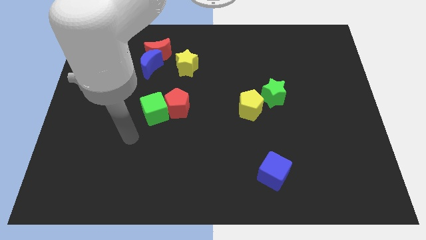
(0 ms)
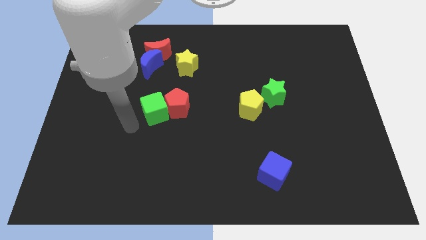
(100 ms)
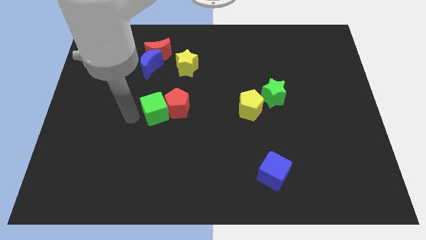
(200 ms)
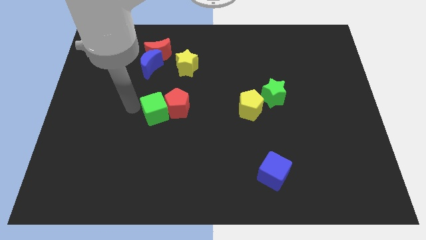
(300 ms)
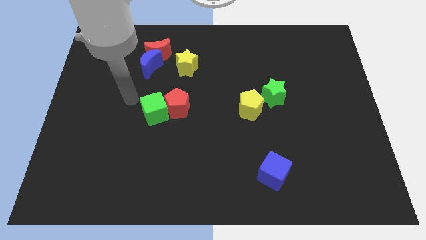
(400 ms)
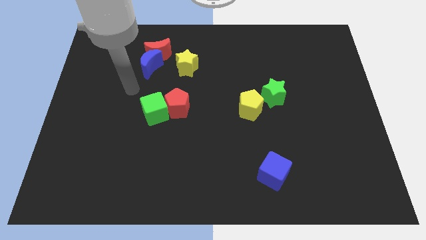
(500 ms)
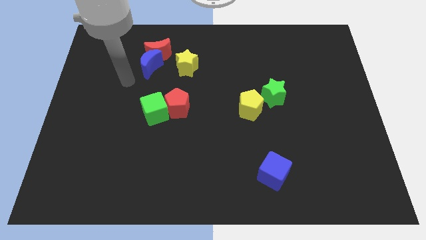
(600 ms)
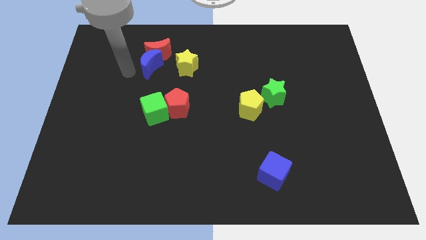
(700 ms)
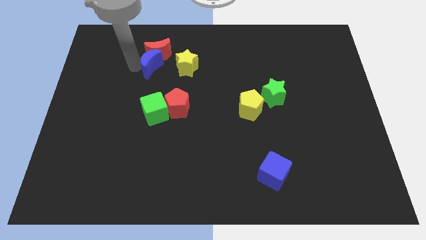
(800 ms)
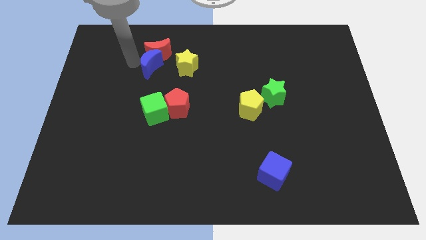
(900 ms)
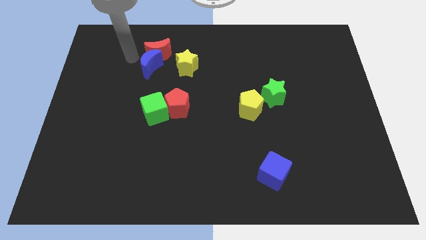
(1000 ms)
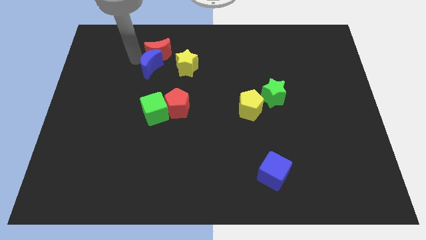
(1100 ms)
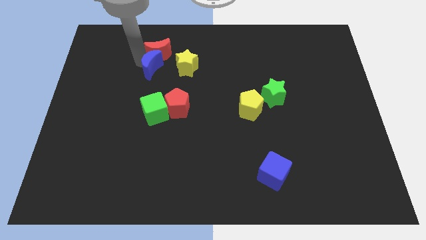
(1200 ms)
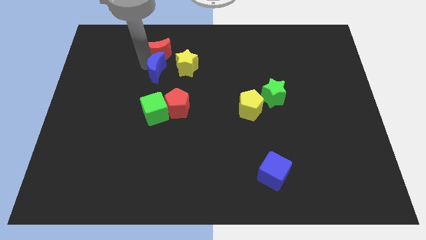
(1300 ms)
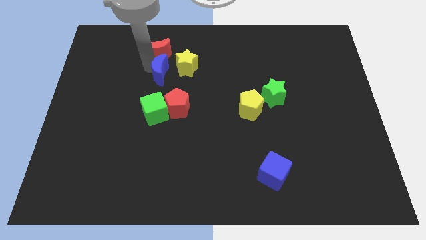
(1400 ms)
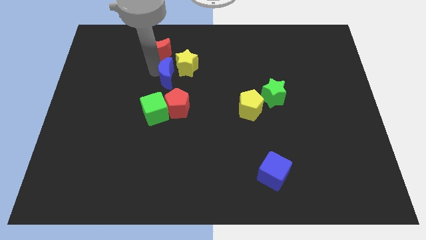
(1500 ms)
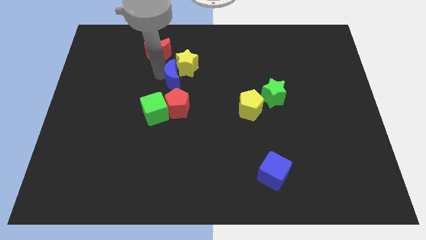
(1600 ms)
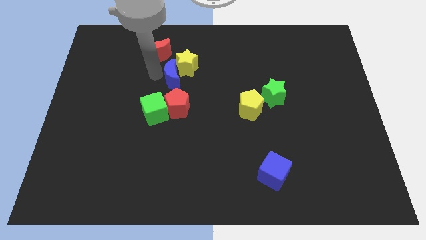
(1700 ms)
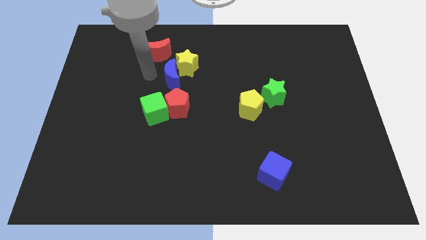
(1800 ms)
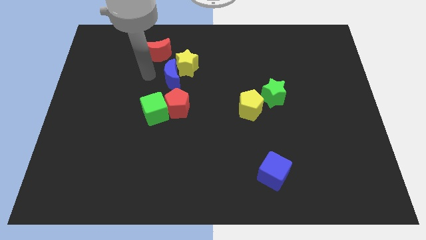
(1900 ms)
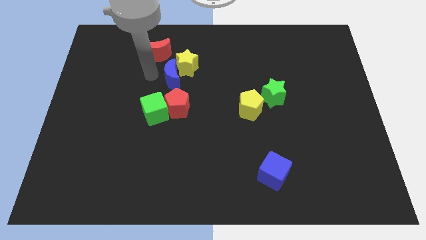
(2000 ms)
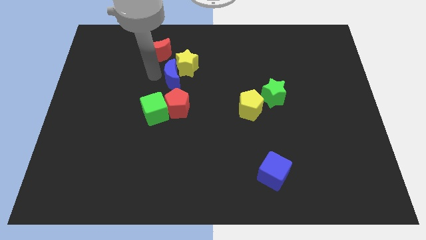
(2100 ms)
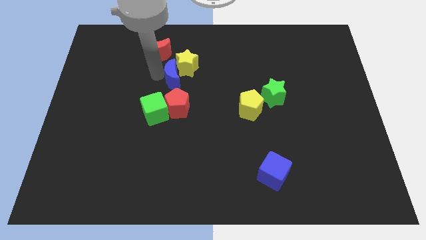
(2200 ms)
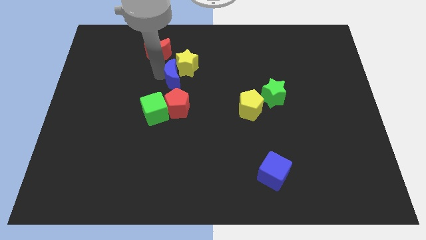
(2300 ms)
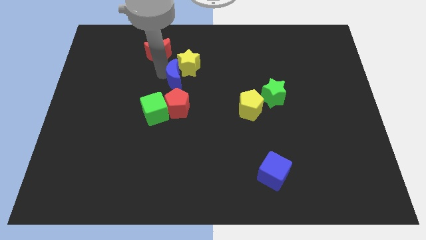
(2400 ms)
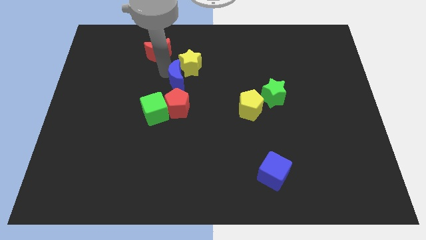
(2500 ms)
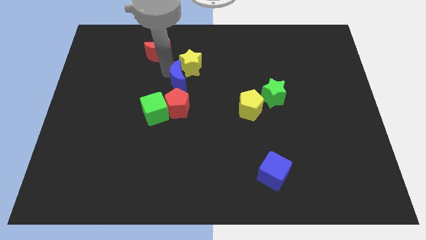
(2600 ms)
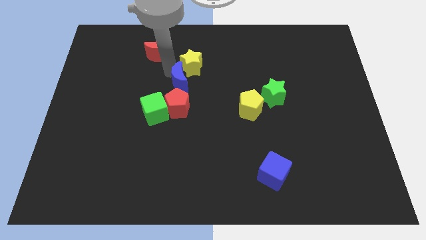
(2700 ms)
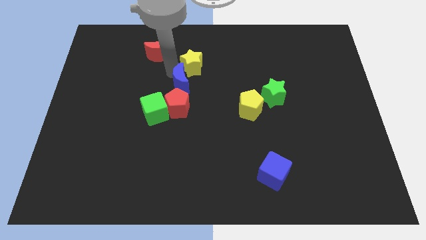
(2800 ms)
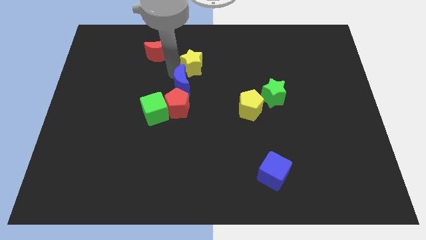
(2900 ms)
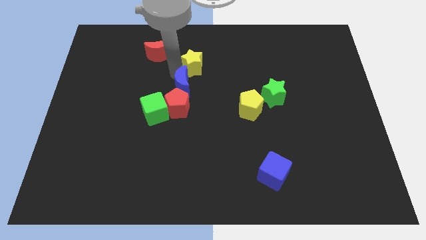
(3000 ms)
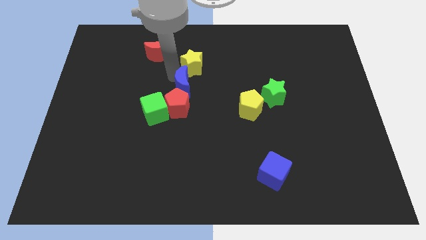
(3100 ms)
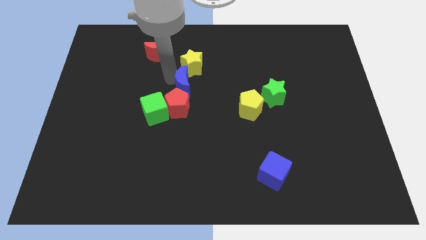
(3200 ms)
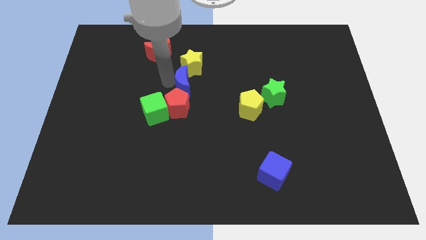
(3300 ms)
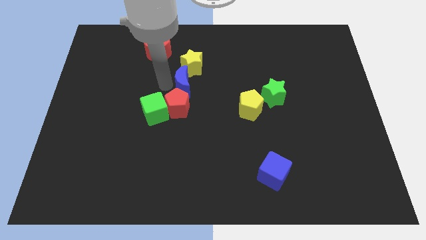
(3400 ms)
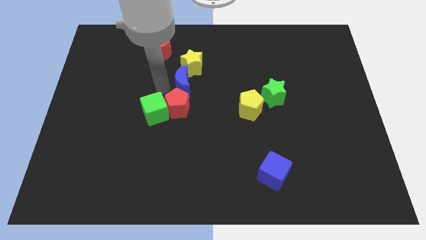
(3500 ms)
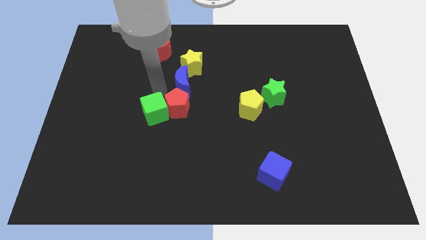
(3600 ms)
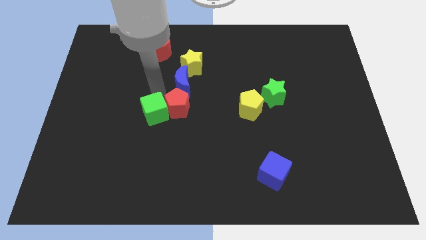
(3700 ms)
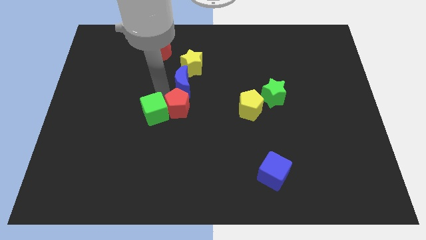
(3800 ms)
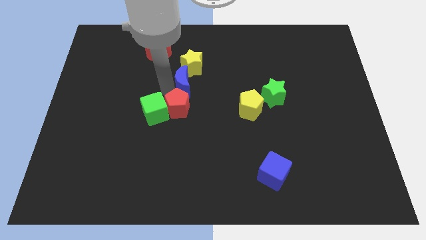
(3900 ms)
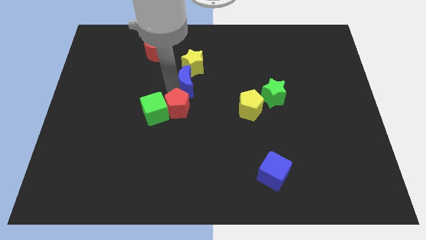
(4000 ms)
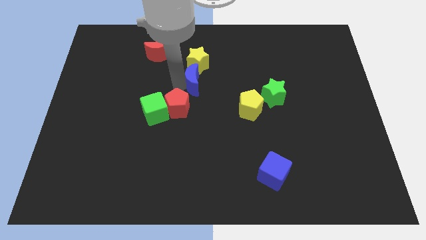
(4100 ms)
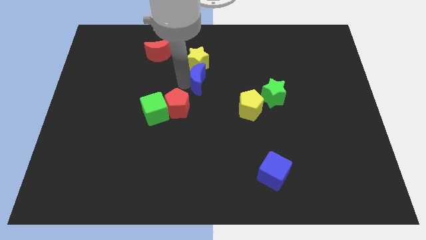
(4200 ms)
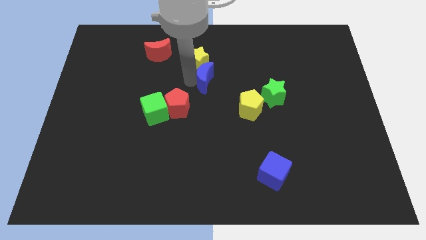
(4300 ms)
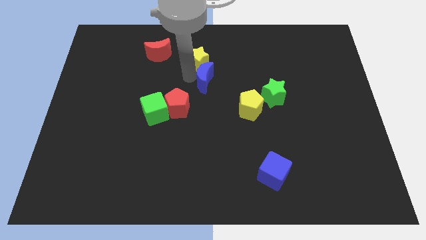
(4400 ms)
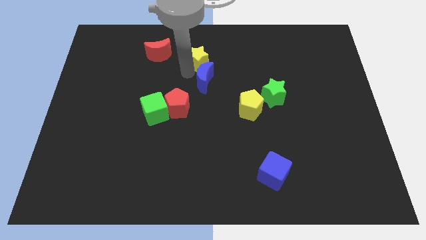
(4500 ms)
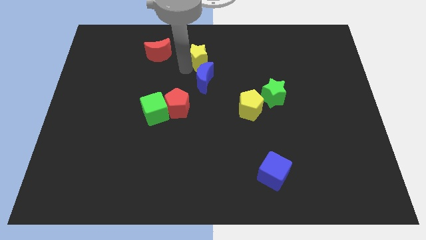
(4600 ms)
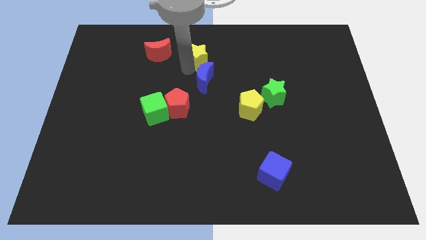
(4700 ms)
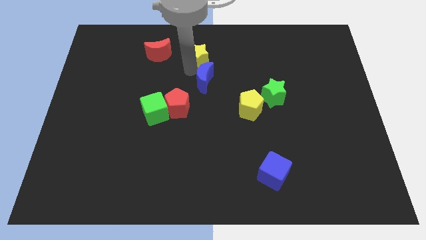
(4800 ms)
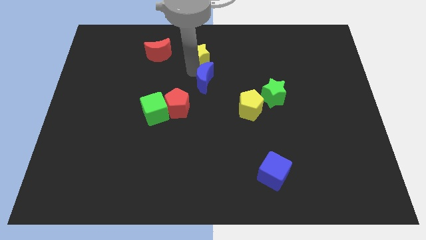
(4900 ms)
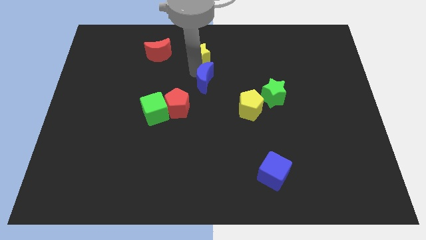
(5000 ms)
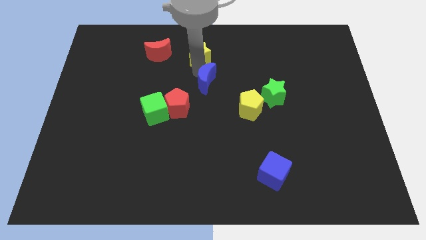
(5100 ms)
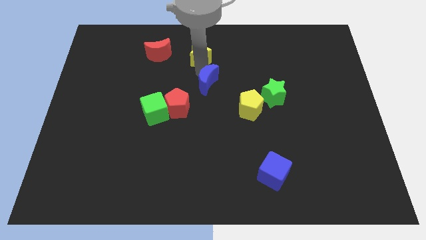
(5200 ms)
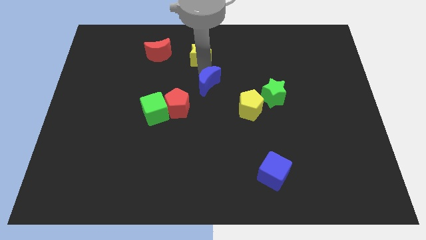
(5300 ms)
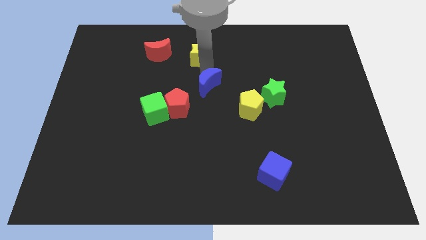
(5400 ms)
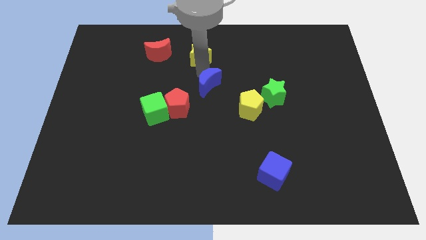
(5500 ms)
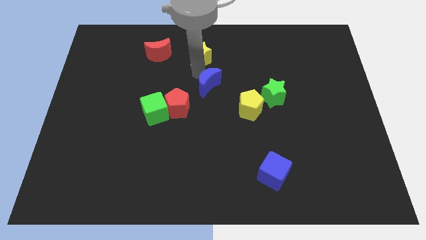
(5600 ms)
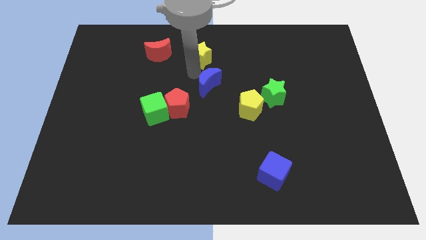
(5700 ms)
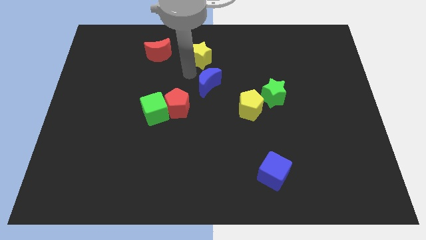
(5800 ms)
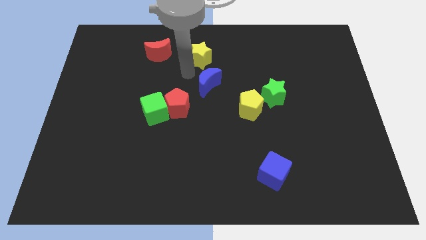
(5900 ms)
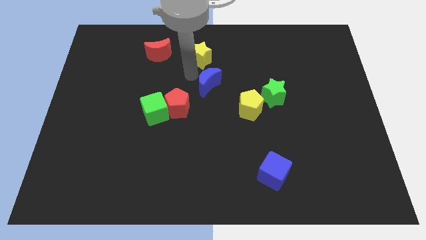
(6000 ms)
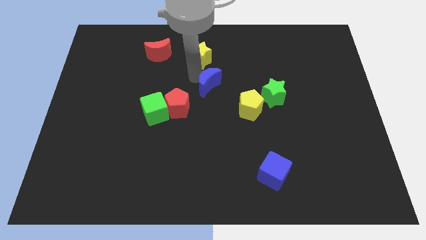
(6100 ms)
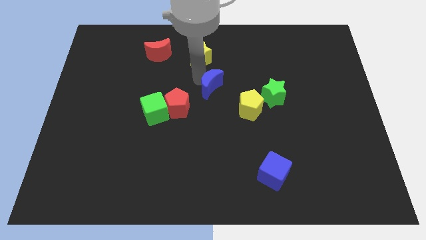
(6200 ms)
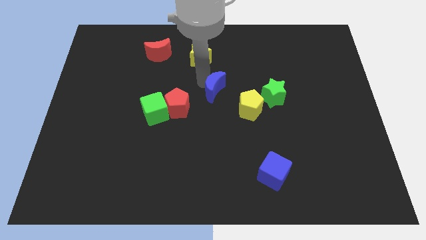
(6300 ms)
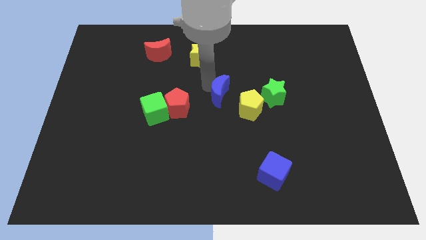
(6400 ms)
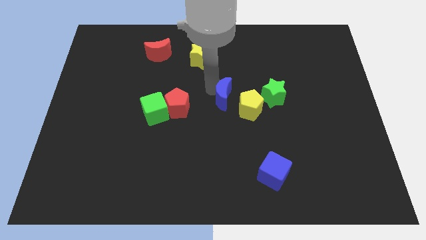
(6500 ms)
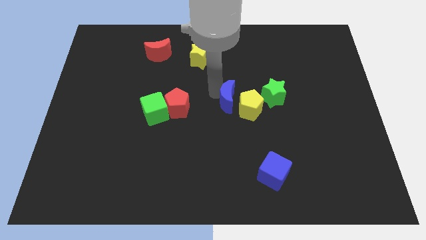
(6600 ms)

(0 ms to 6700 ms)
push the blue moon to the yellow pentagon

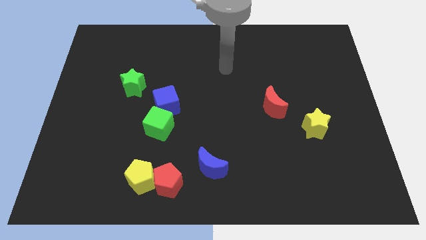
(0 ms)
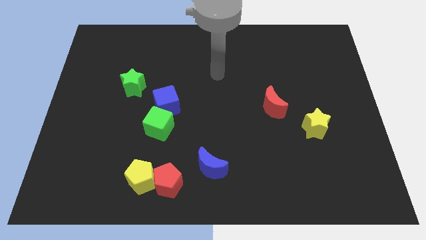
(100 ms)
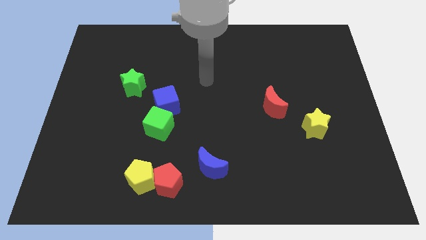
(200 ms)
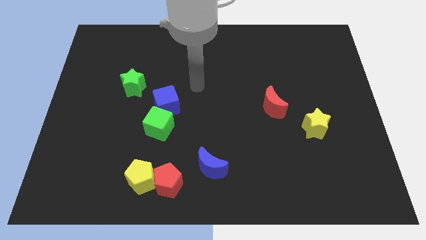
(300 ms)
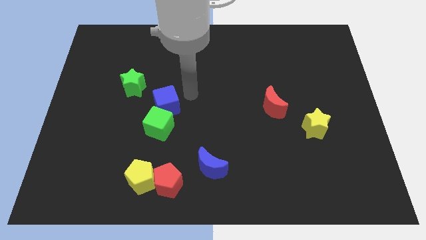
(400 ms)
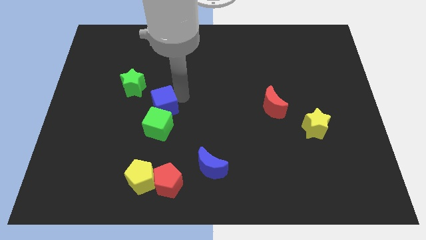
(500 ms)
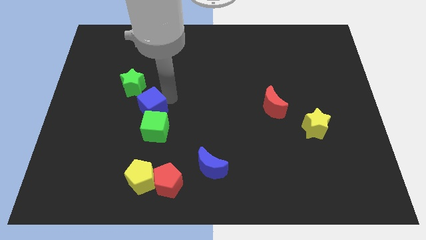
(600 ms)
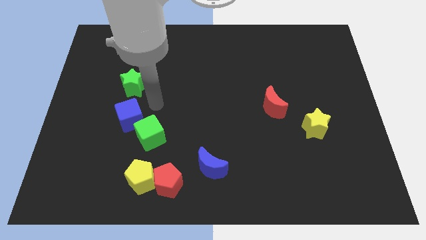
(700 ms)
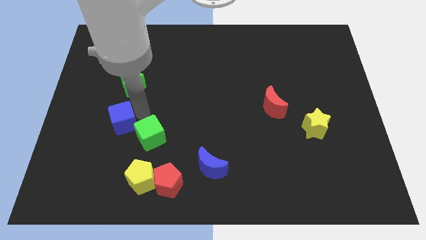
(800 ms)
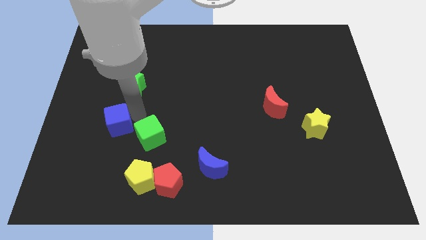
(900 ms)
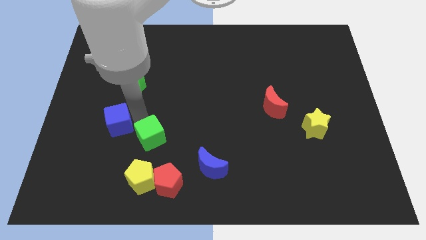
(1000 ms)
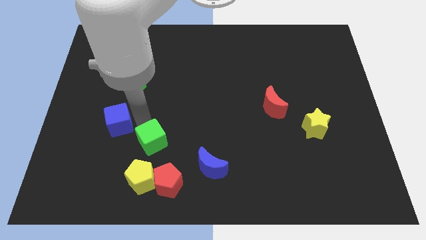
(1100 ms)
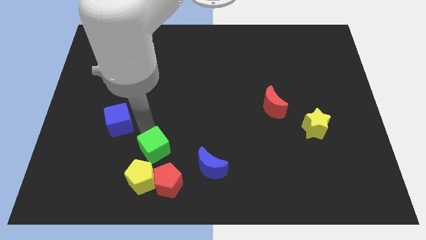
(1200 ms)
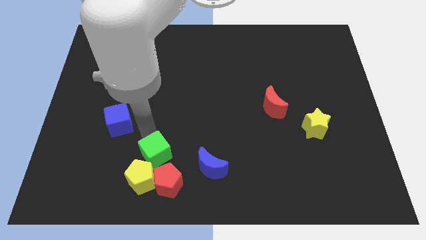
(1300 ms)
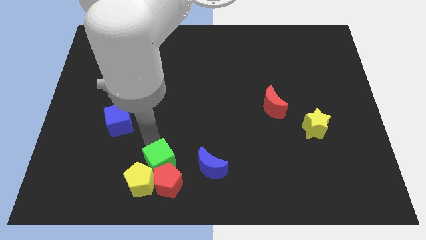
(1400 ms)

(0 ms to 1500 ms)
slide the green cube next to the red pentagon
